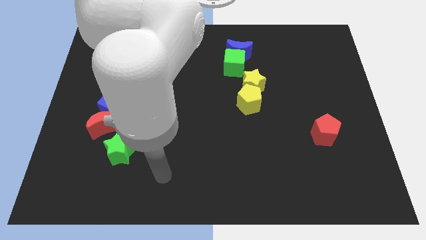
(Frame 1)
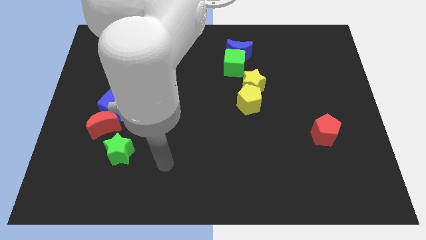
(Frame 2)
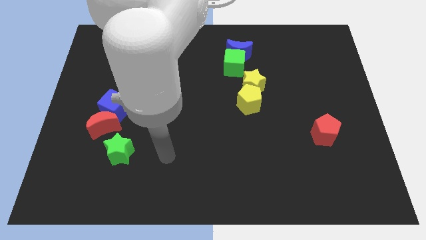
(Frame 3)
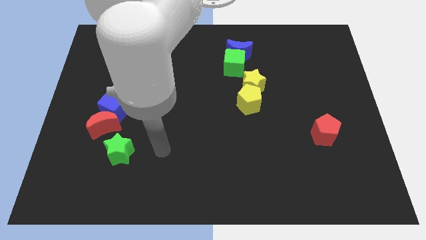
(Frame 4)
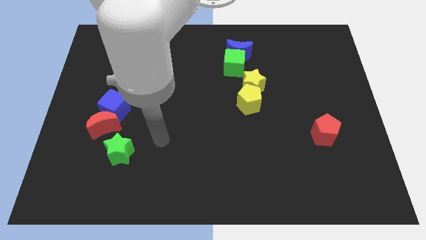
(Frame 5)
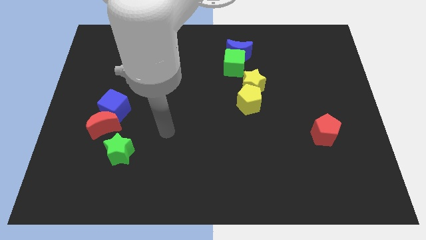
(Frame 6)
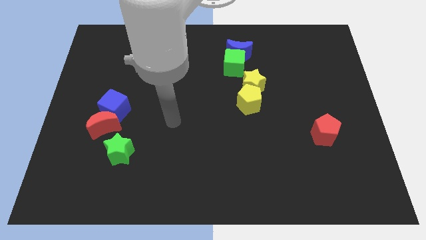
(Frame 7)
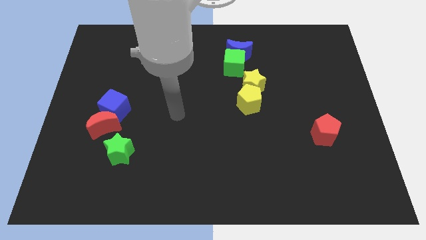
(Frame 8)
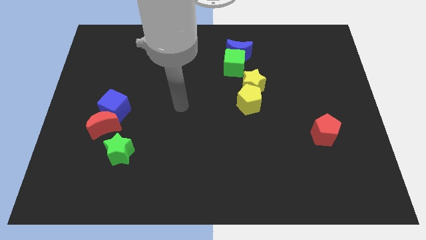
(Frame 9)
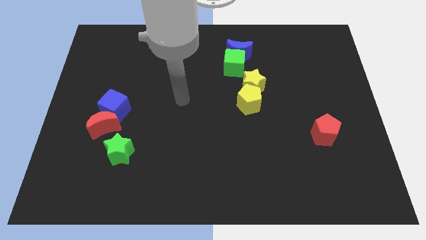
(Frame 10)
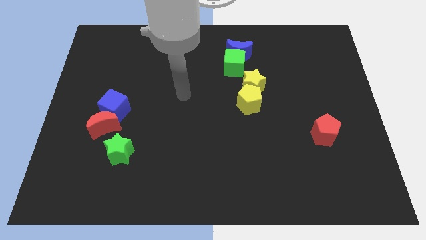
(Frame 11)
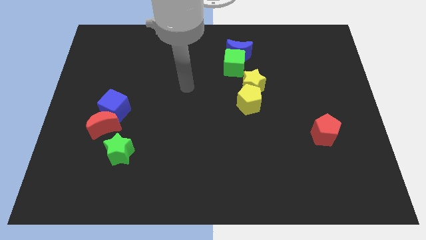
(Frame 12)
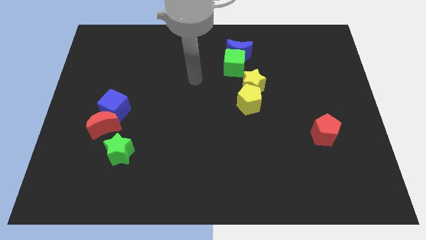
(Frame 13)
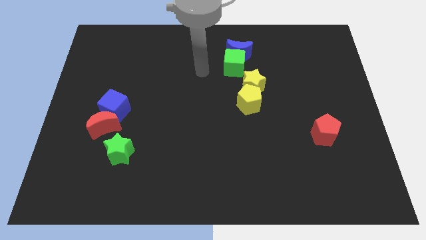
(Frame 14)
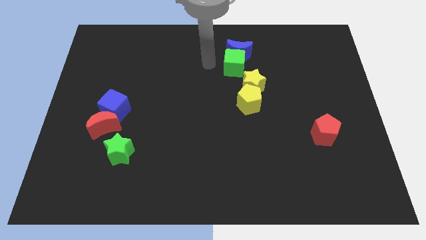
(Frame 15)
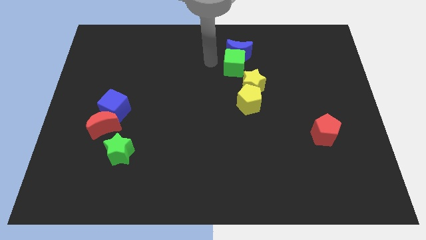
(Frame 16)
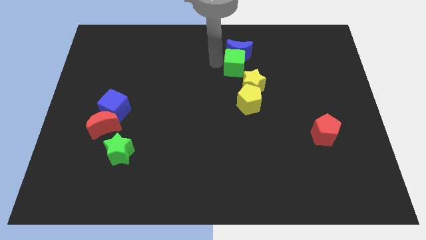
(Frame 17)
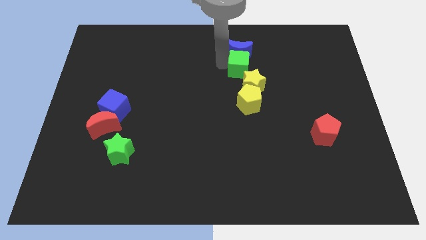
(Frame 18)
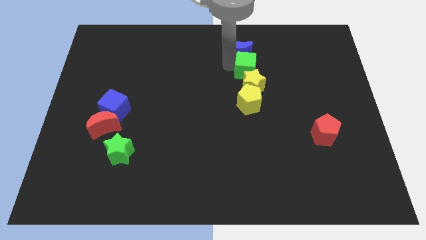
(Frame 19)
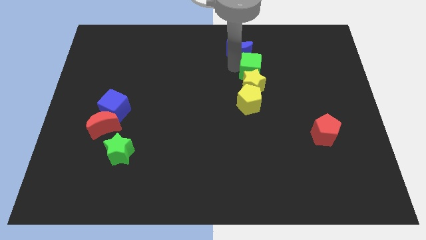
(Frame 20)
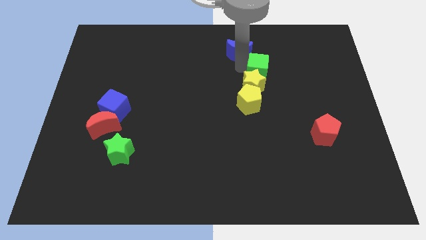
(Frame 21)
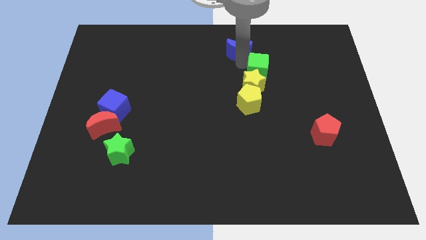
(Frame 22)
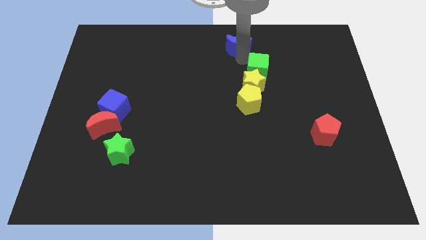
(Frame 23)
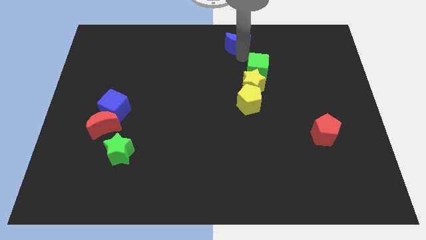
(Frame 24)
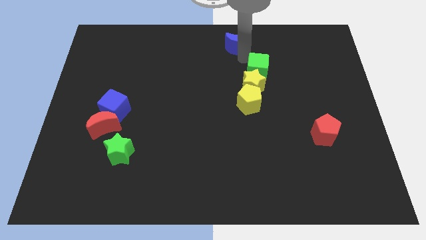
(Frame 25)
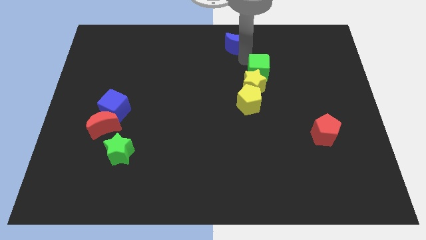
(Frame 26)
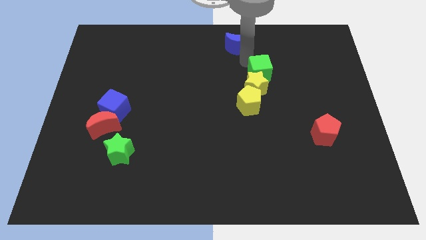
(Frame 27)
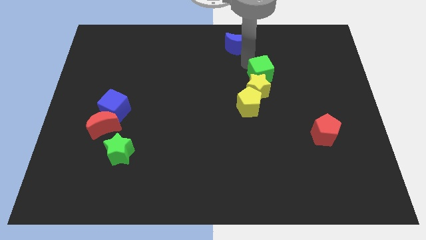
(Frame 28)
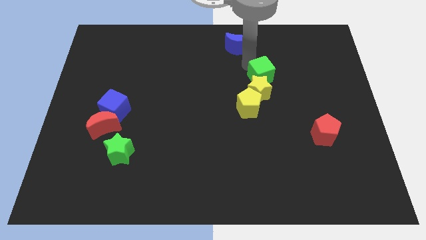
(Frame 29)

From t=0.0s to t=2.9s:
slightly slide the green cube downwards and right

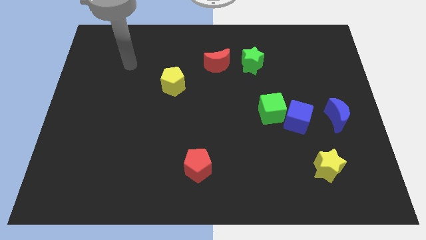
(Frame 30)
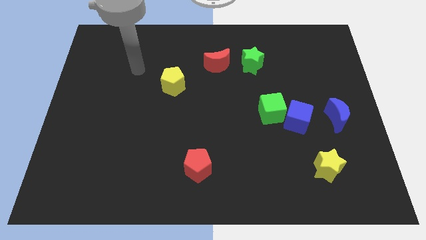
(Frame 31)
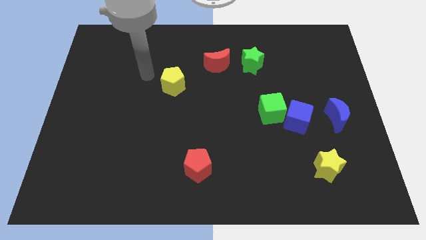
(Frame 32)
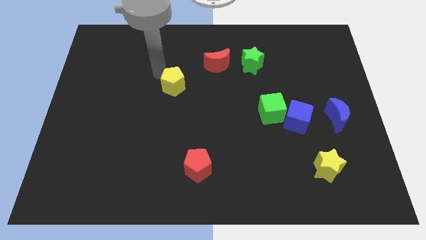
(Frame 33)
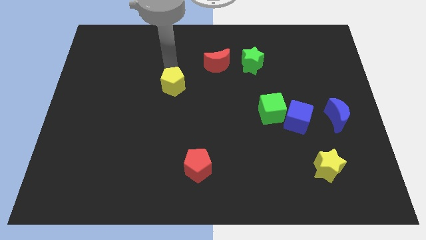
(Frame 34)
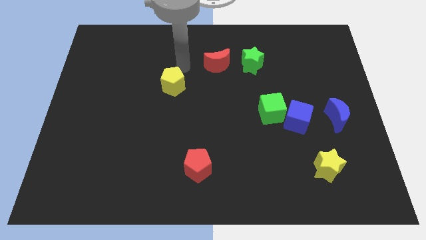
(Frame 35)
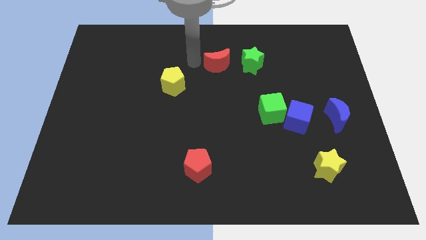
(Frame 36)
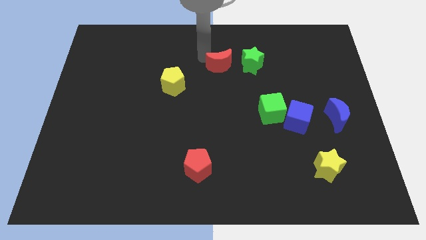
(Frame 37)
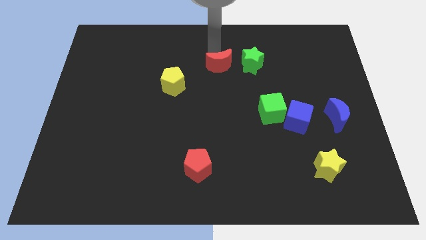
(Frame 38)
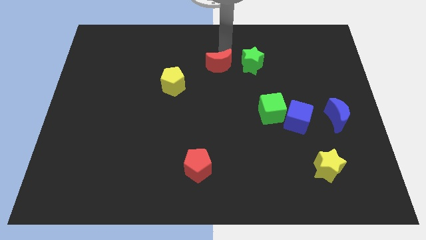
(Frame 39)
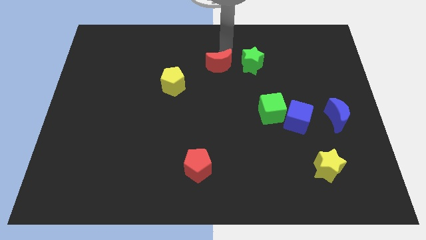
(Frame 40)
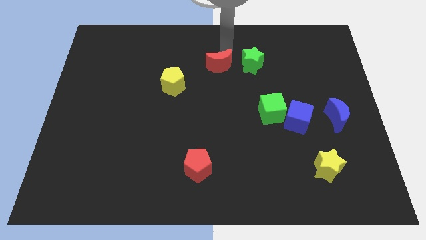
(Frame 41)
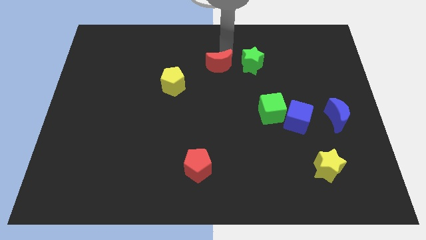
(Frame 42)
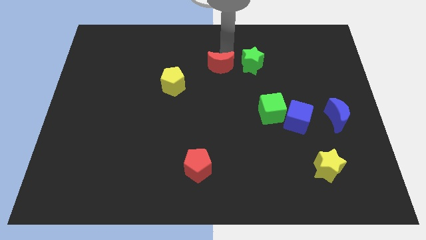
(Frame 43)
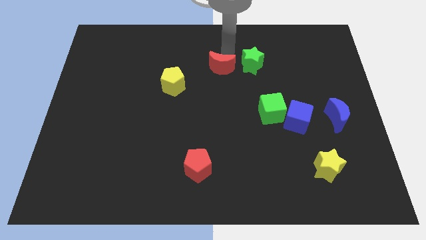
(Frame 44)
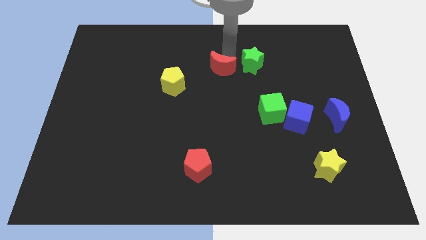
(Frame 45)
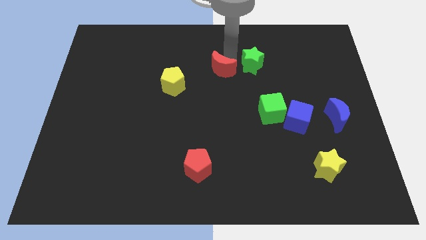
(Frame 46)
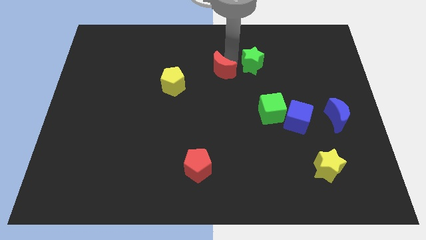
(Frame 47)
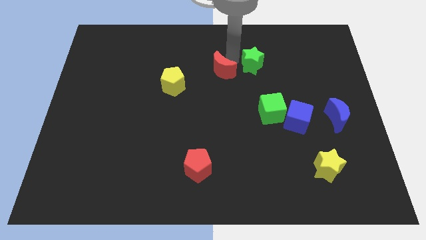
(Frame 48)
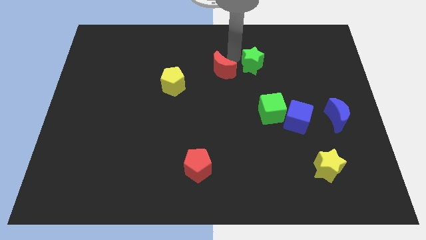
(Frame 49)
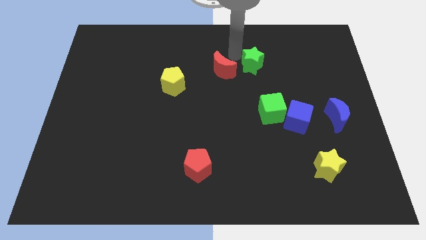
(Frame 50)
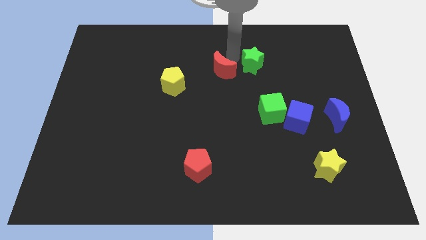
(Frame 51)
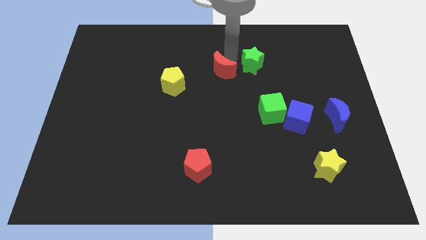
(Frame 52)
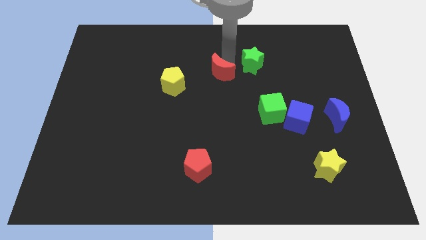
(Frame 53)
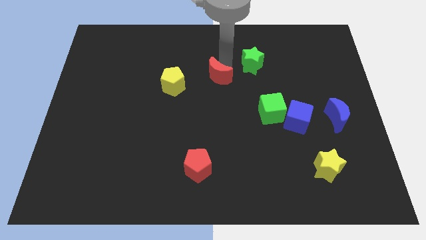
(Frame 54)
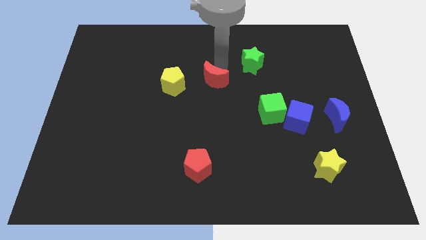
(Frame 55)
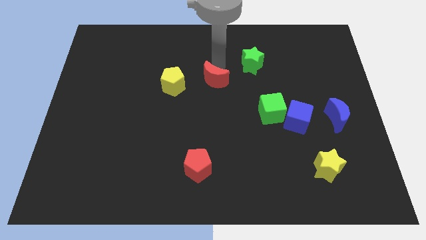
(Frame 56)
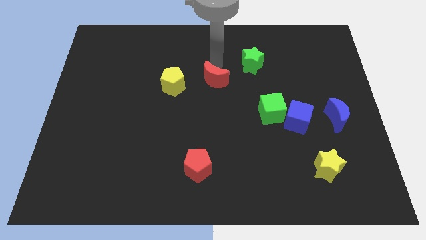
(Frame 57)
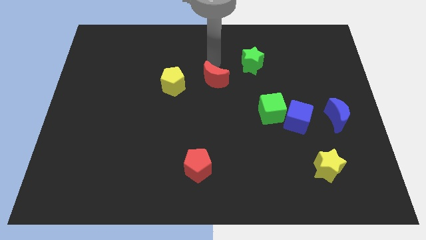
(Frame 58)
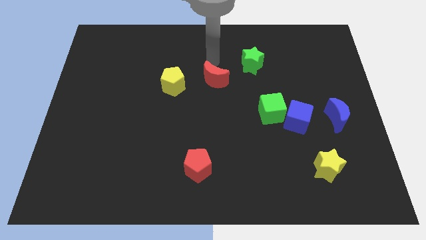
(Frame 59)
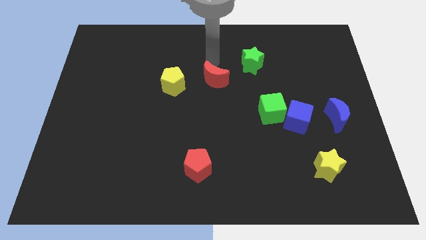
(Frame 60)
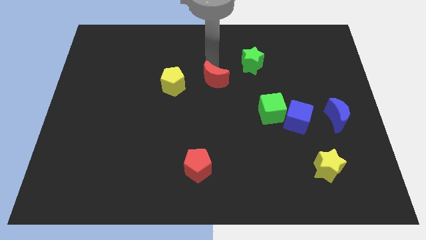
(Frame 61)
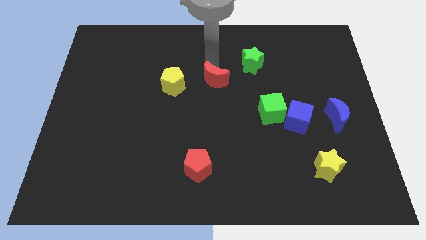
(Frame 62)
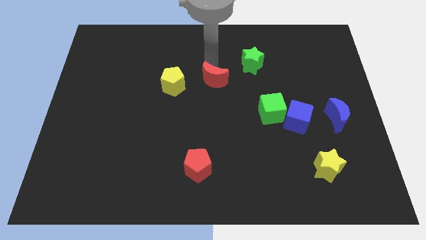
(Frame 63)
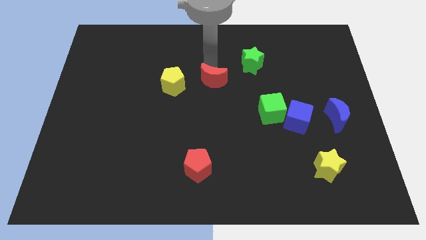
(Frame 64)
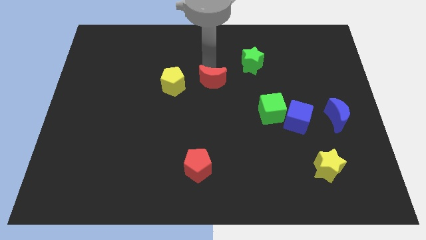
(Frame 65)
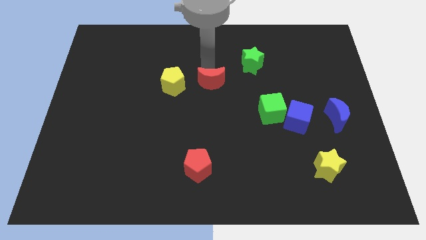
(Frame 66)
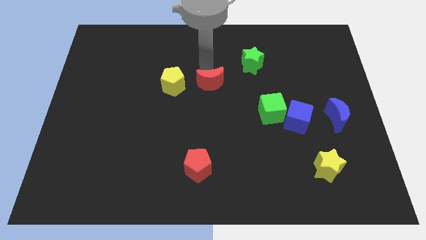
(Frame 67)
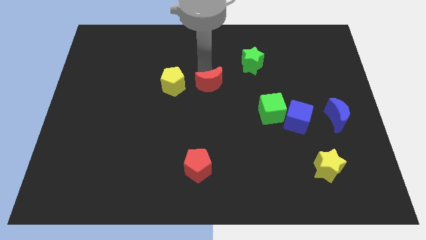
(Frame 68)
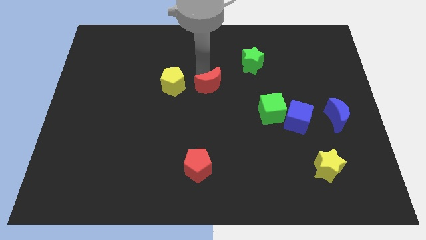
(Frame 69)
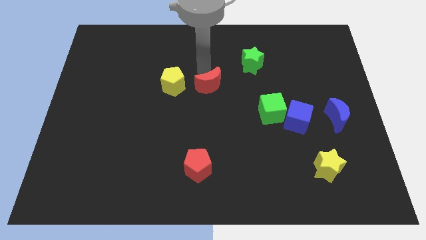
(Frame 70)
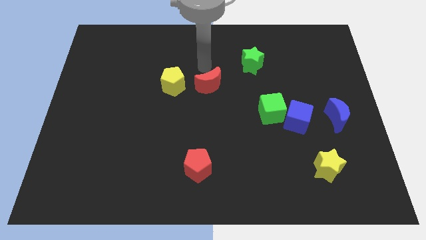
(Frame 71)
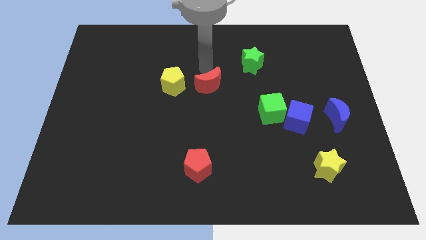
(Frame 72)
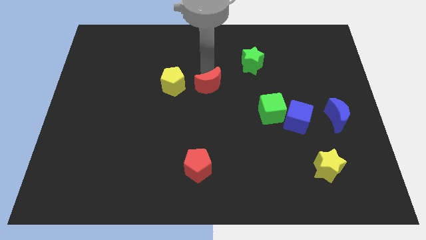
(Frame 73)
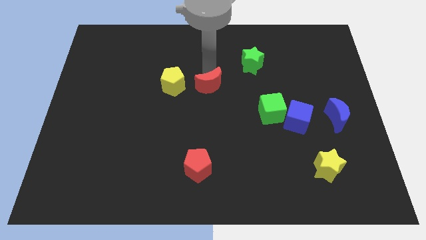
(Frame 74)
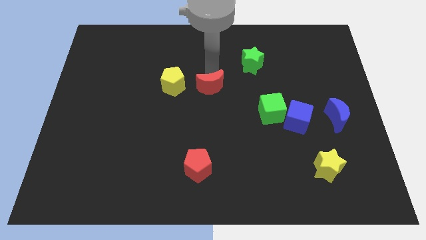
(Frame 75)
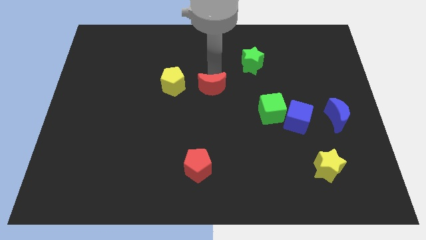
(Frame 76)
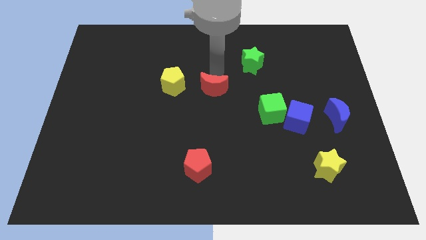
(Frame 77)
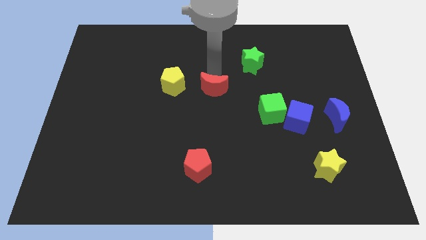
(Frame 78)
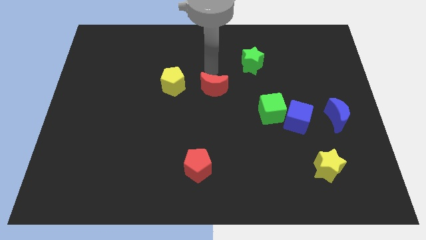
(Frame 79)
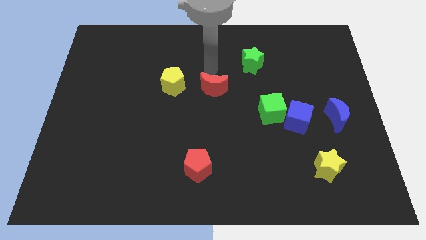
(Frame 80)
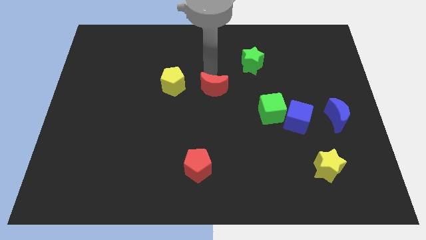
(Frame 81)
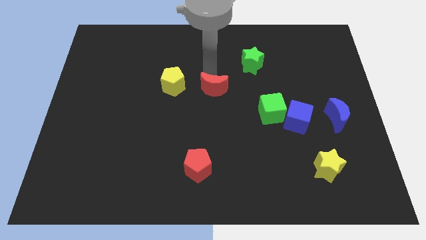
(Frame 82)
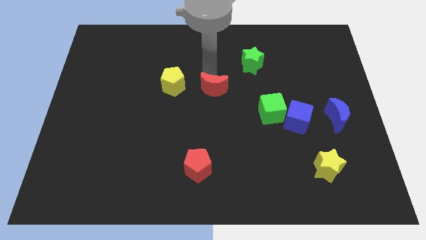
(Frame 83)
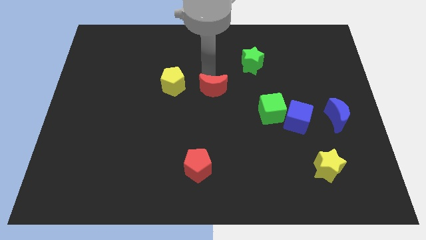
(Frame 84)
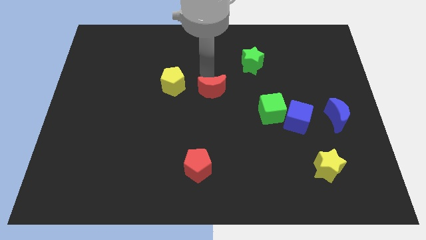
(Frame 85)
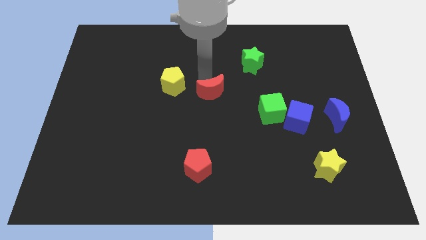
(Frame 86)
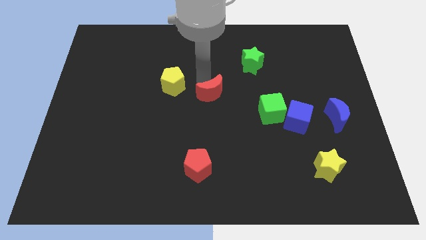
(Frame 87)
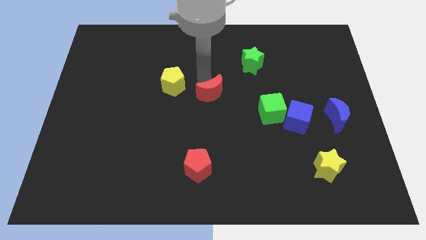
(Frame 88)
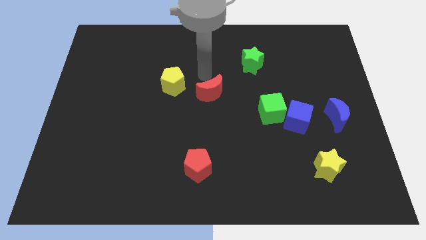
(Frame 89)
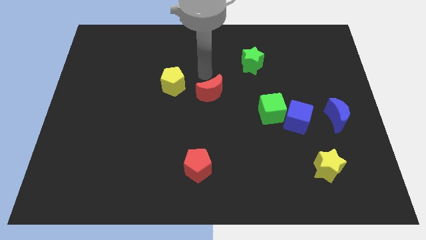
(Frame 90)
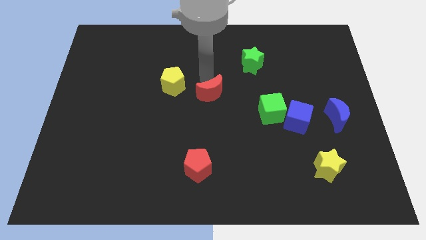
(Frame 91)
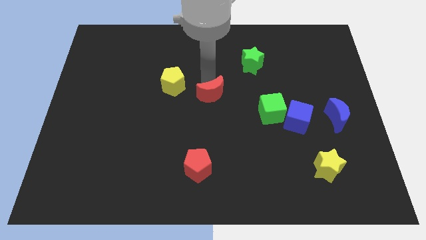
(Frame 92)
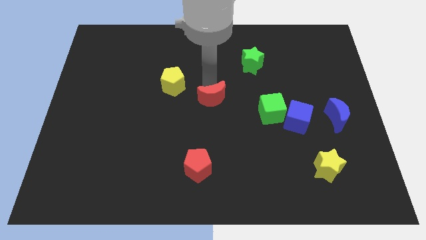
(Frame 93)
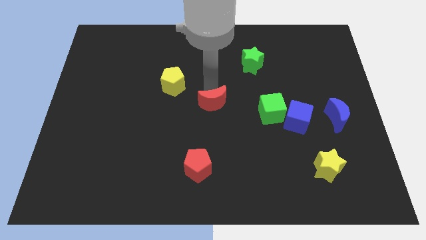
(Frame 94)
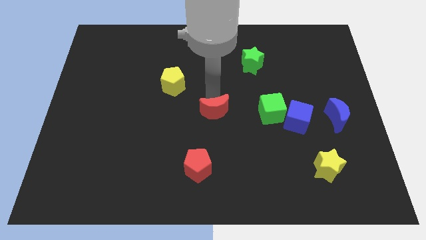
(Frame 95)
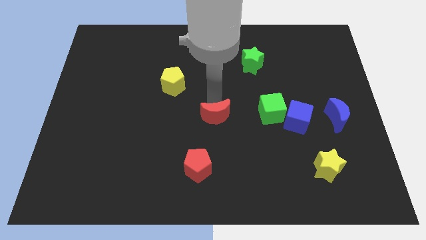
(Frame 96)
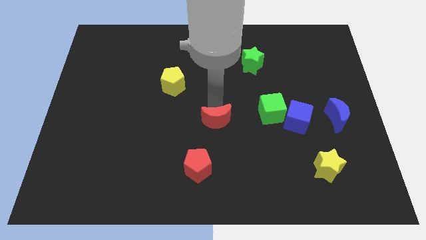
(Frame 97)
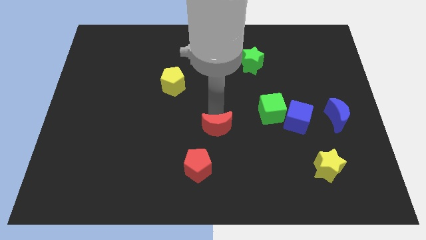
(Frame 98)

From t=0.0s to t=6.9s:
push the red moon down
